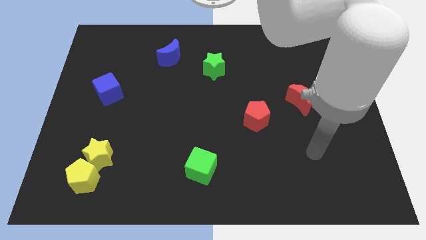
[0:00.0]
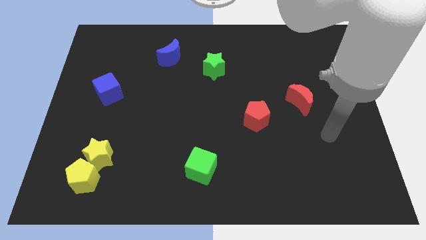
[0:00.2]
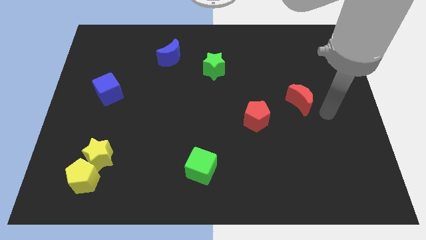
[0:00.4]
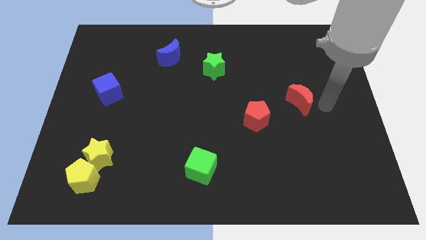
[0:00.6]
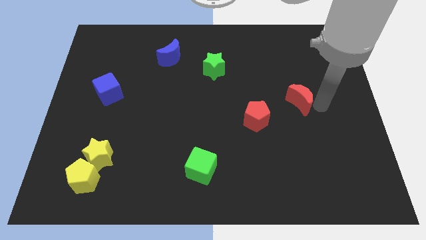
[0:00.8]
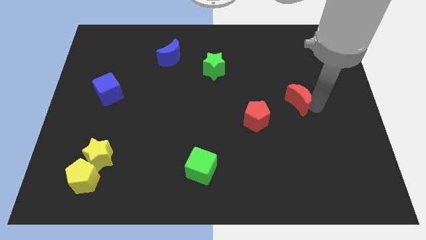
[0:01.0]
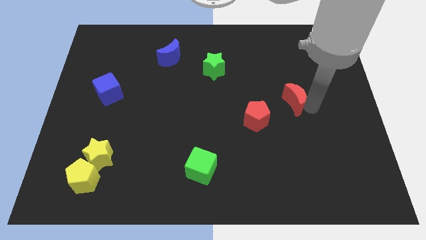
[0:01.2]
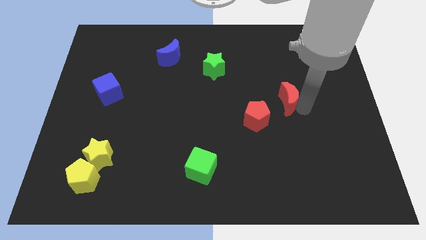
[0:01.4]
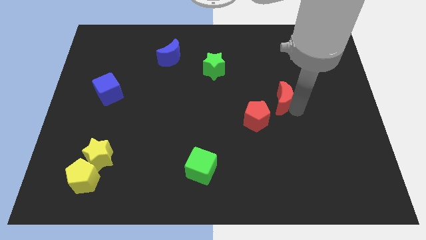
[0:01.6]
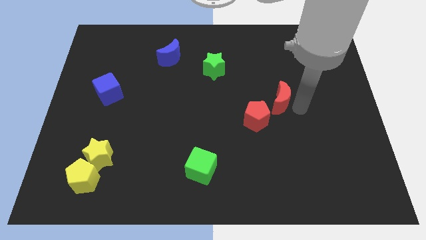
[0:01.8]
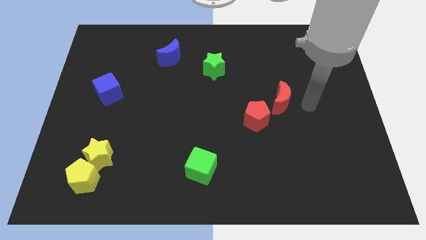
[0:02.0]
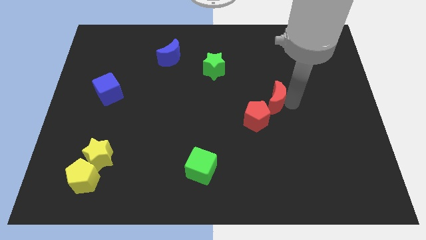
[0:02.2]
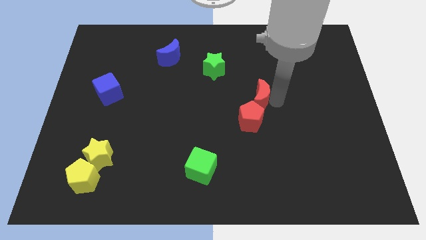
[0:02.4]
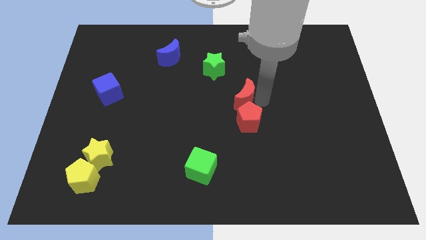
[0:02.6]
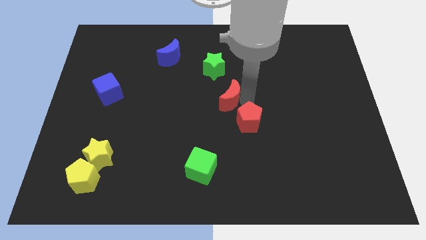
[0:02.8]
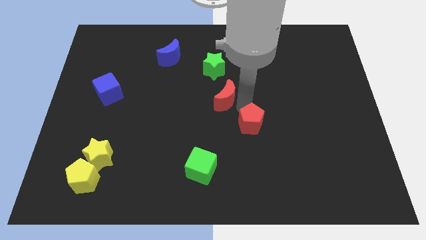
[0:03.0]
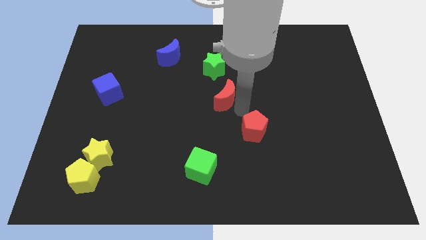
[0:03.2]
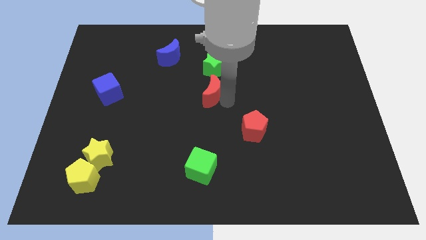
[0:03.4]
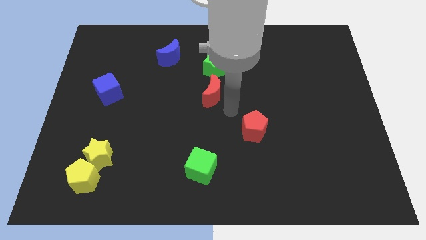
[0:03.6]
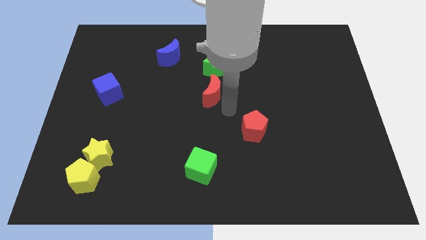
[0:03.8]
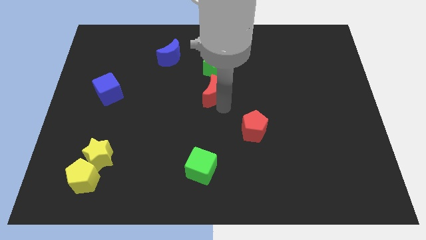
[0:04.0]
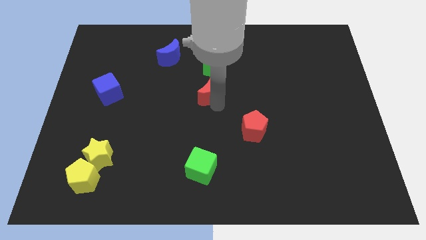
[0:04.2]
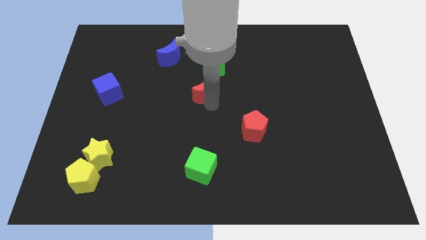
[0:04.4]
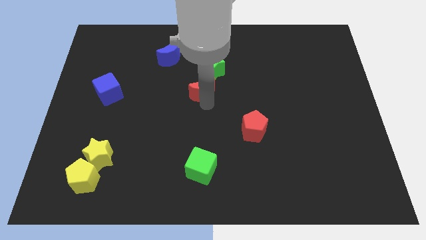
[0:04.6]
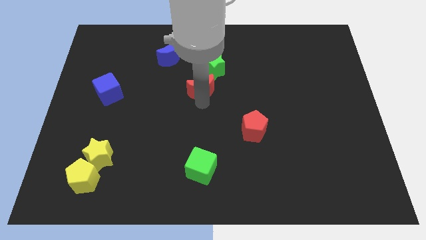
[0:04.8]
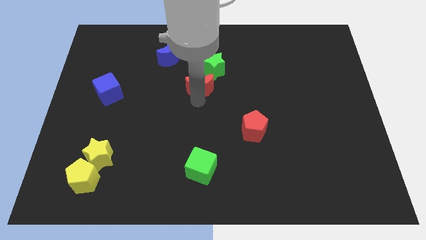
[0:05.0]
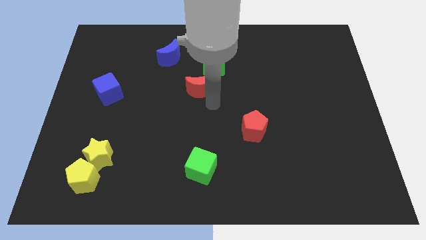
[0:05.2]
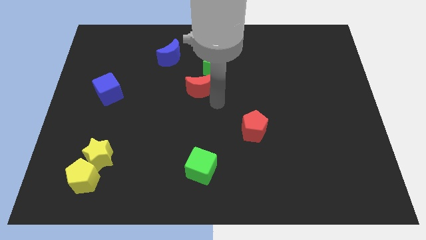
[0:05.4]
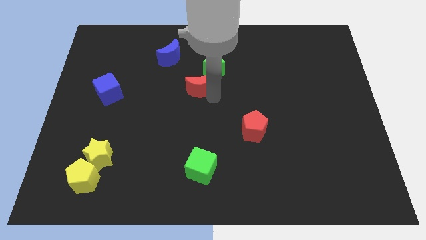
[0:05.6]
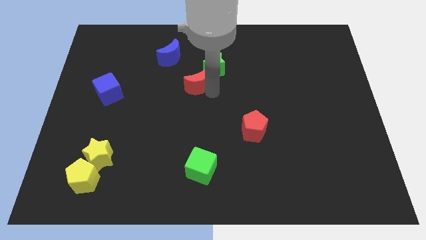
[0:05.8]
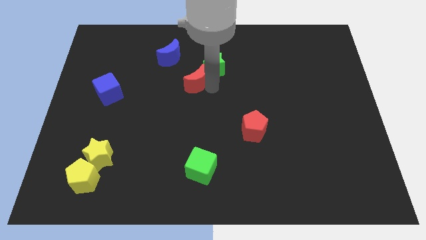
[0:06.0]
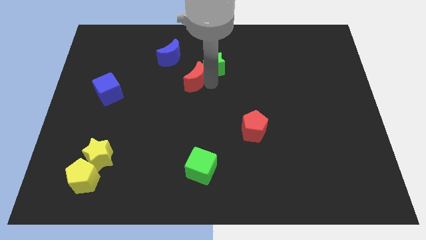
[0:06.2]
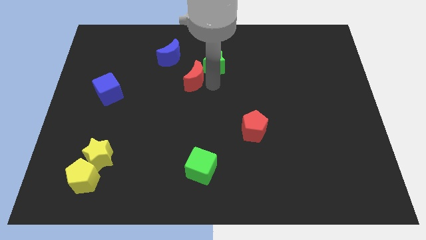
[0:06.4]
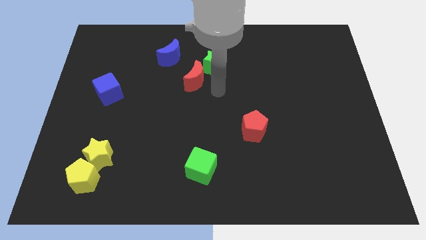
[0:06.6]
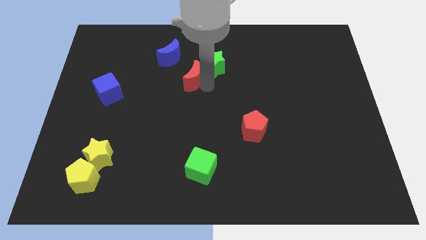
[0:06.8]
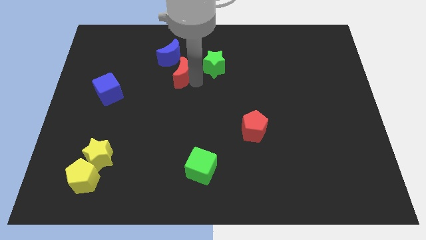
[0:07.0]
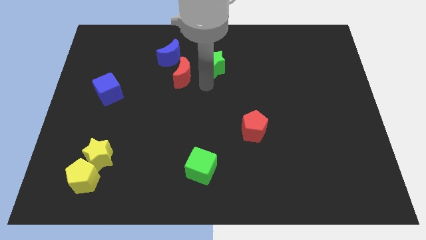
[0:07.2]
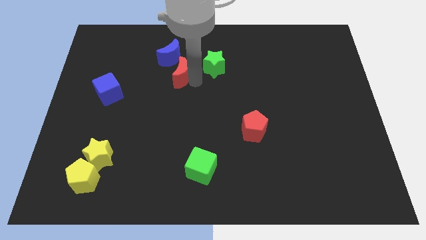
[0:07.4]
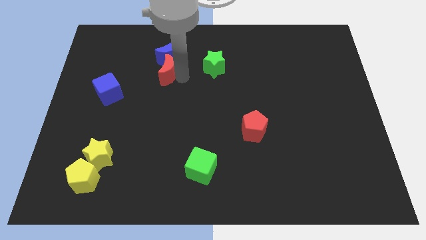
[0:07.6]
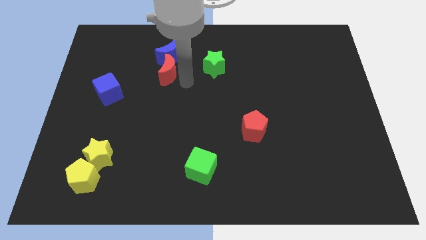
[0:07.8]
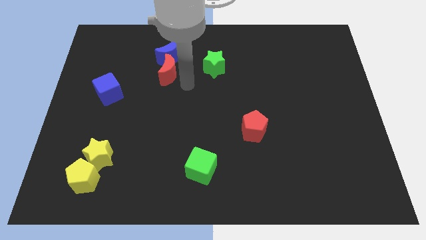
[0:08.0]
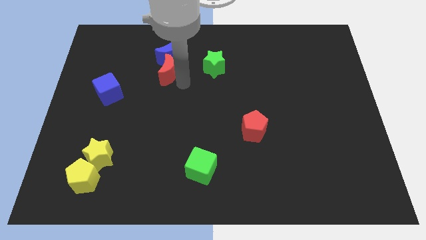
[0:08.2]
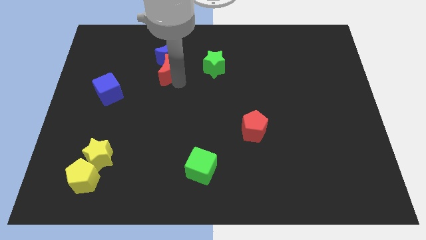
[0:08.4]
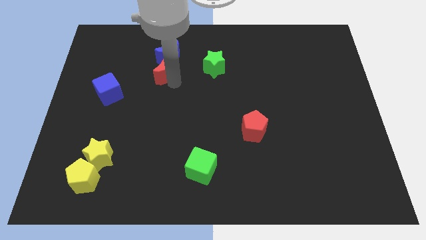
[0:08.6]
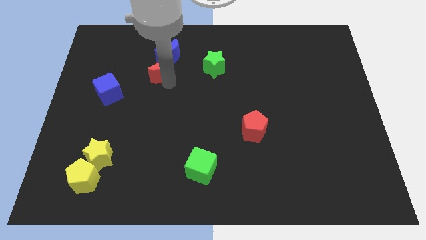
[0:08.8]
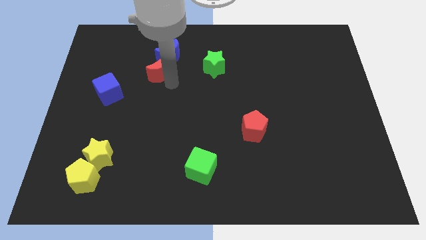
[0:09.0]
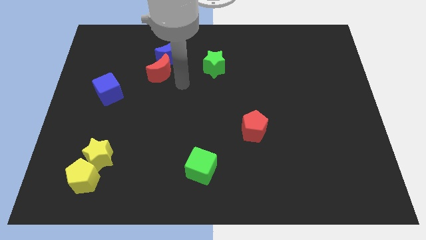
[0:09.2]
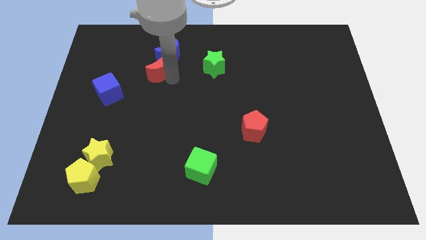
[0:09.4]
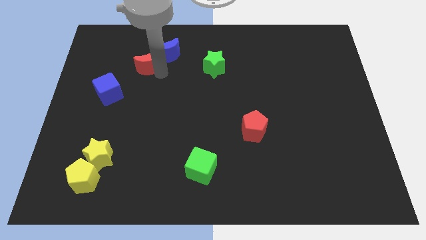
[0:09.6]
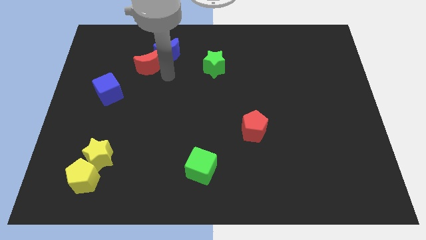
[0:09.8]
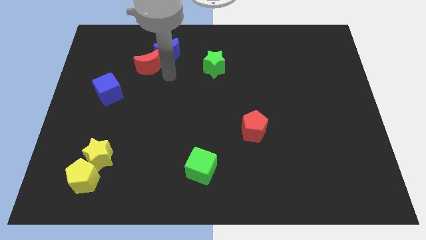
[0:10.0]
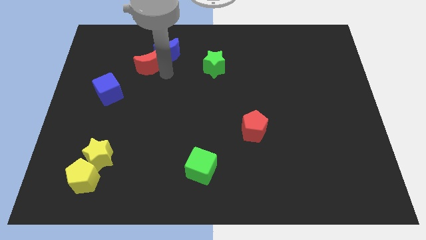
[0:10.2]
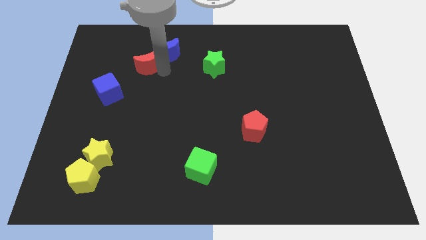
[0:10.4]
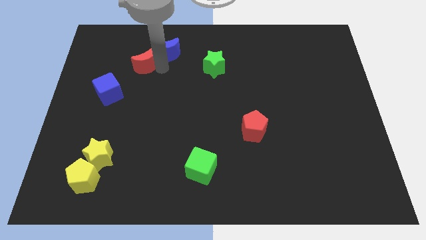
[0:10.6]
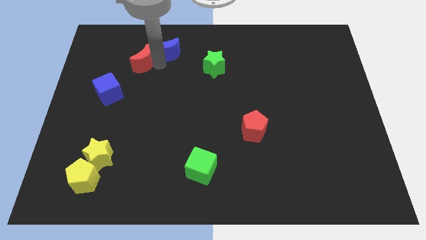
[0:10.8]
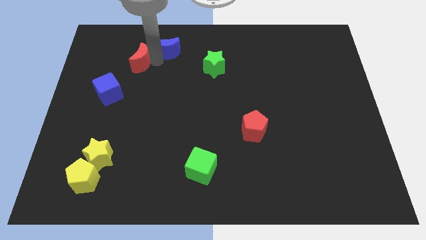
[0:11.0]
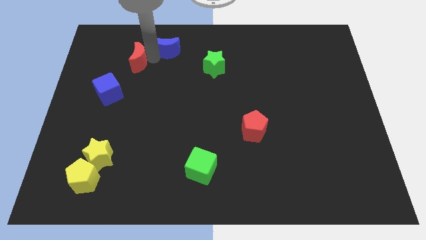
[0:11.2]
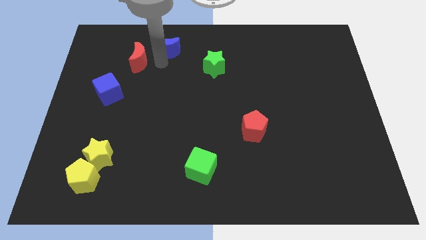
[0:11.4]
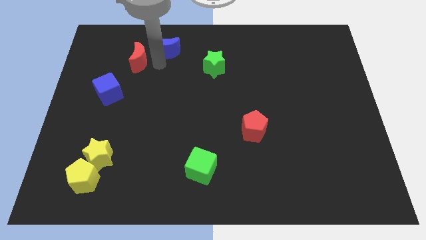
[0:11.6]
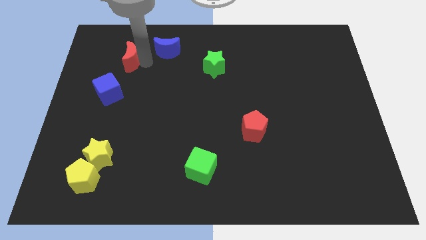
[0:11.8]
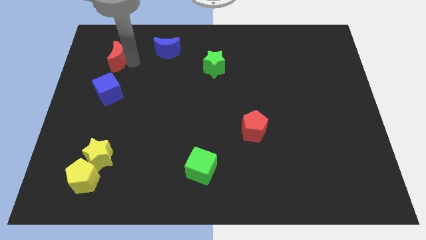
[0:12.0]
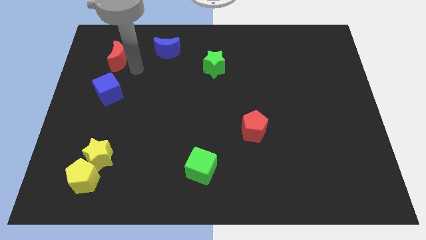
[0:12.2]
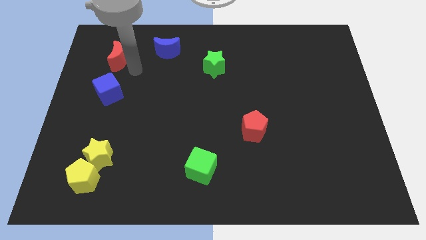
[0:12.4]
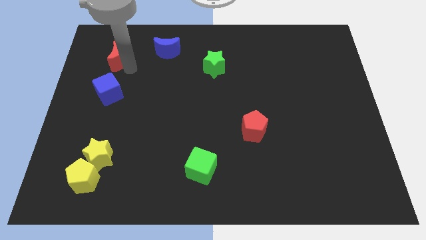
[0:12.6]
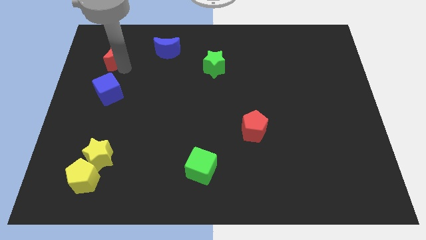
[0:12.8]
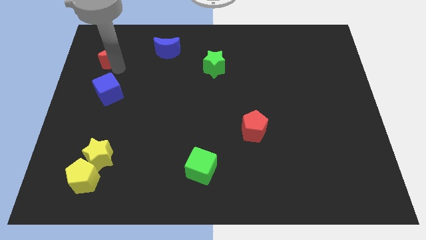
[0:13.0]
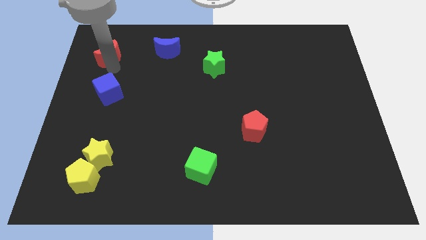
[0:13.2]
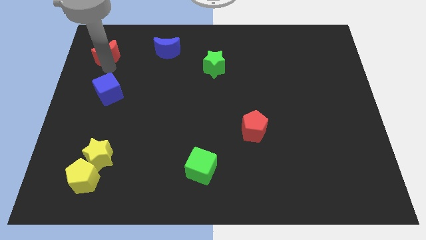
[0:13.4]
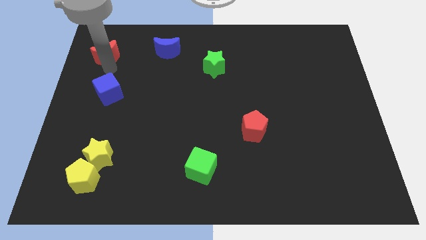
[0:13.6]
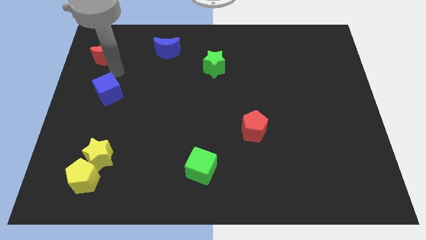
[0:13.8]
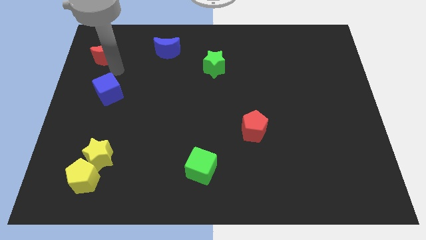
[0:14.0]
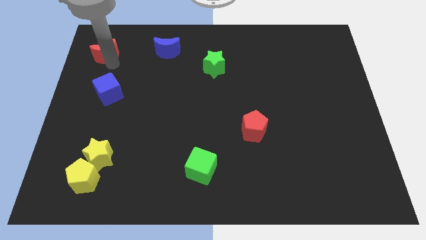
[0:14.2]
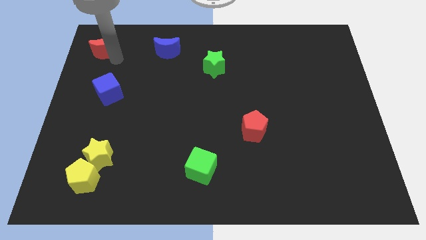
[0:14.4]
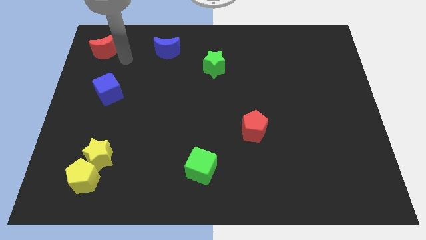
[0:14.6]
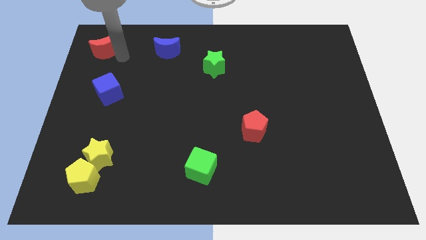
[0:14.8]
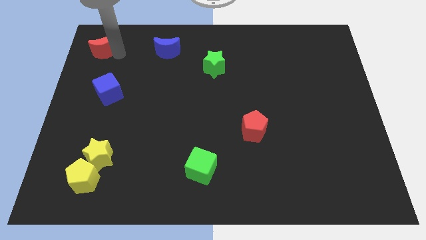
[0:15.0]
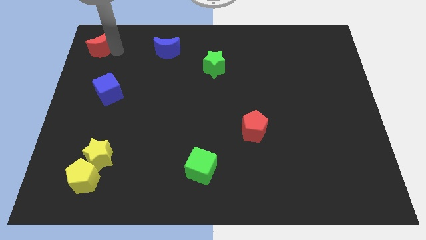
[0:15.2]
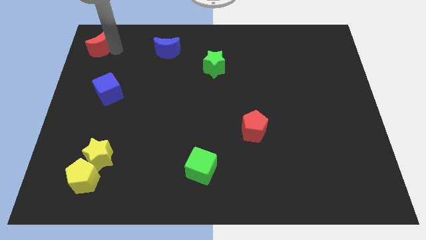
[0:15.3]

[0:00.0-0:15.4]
push the red moon to the top left corner

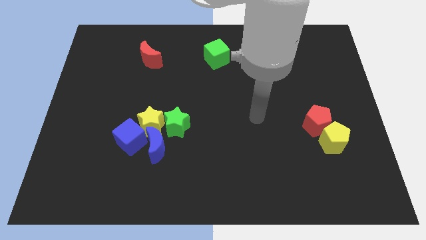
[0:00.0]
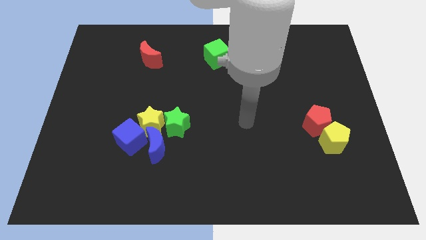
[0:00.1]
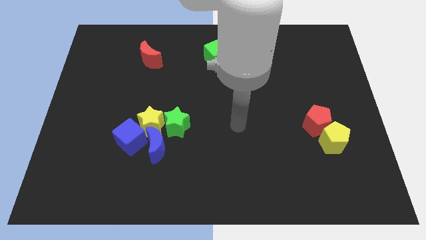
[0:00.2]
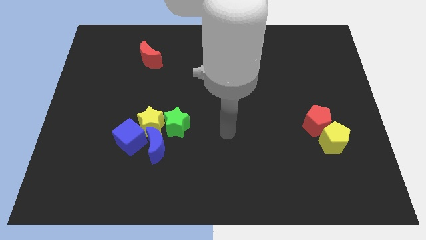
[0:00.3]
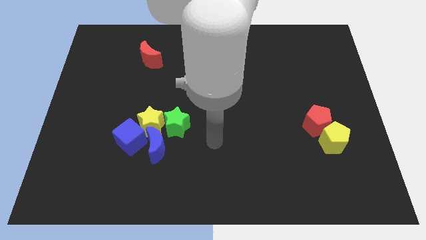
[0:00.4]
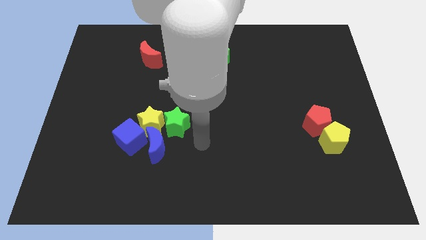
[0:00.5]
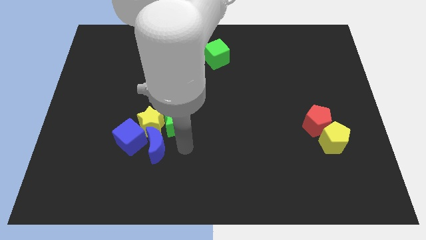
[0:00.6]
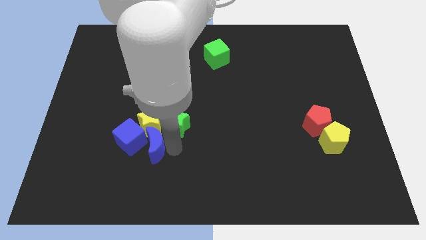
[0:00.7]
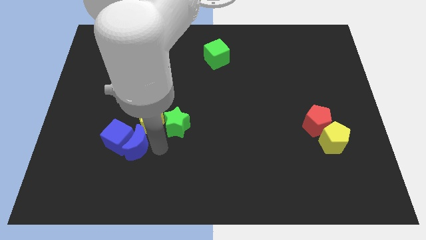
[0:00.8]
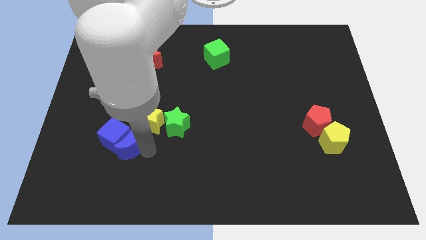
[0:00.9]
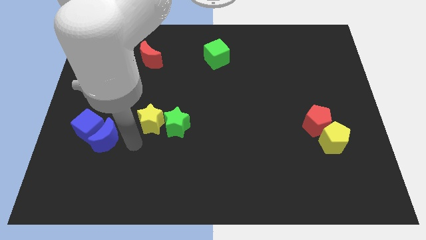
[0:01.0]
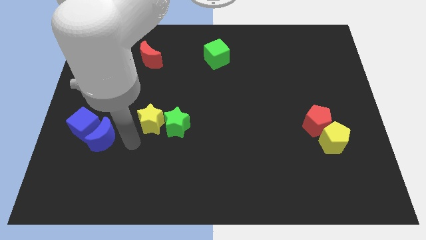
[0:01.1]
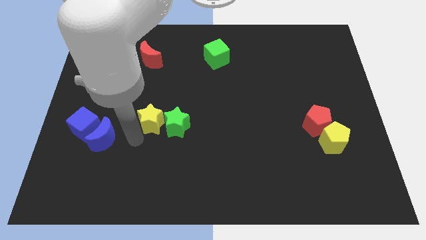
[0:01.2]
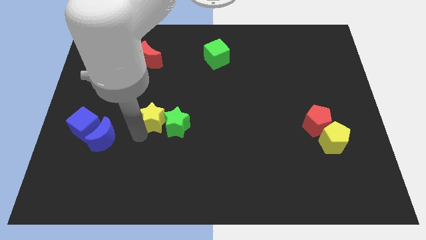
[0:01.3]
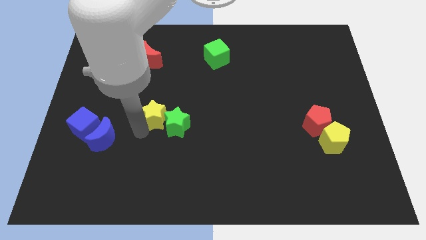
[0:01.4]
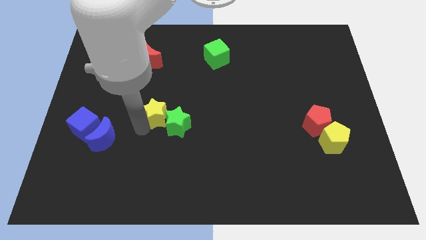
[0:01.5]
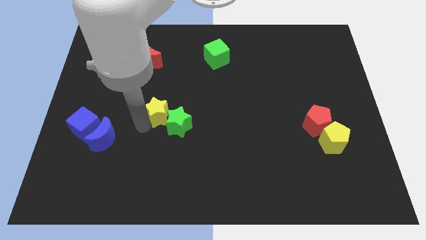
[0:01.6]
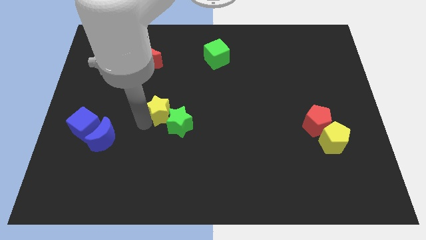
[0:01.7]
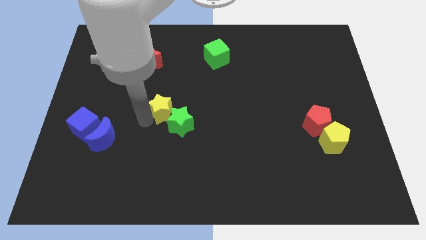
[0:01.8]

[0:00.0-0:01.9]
move the yellow star to the center of the board
